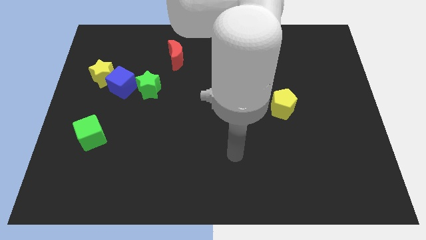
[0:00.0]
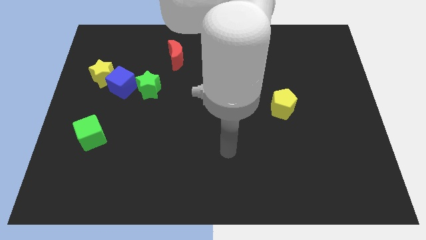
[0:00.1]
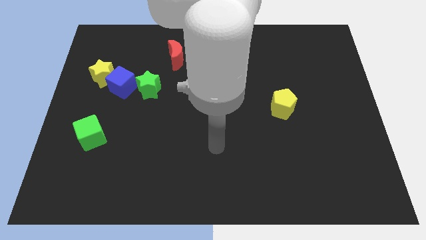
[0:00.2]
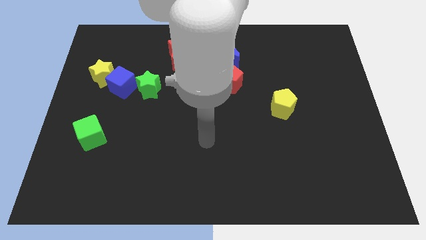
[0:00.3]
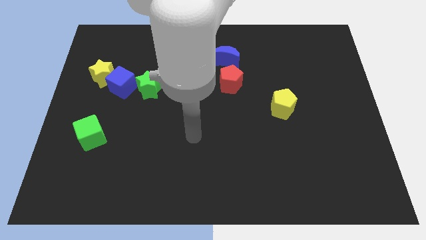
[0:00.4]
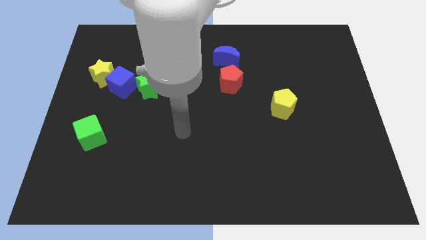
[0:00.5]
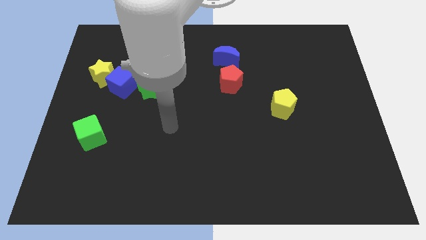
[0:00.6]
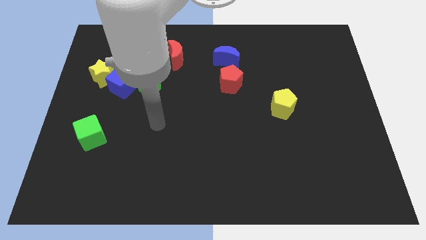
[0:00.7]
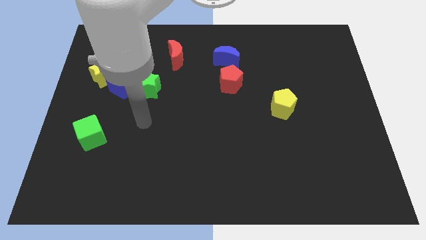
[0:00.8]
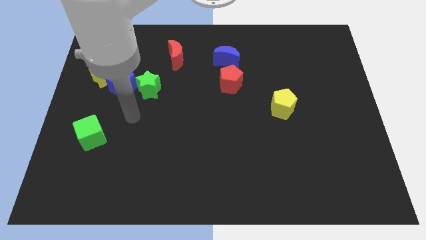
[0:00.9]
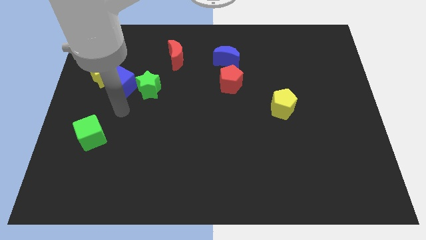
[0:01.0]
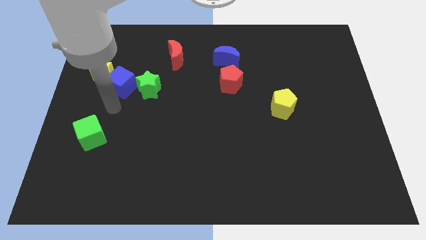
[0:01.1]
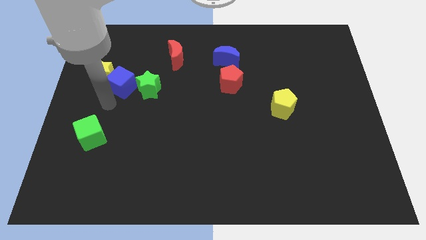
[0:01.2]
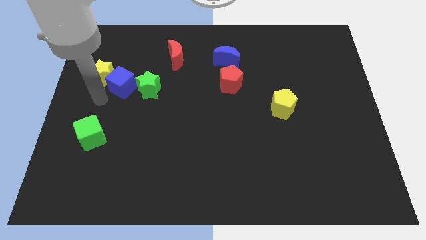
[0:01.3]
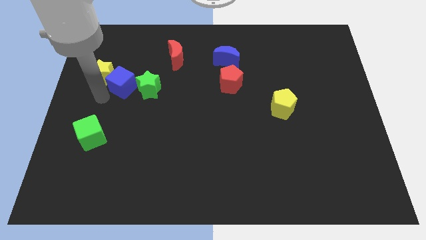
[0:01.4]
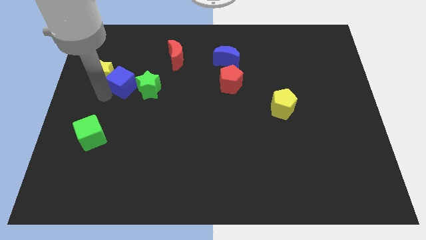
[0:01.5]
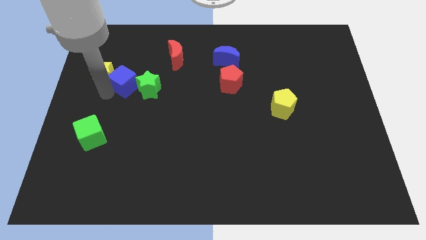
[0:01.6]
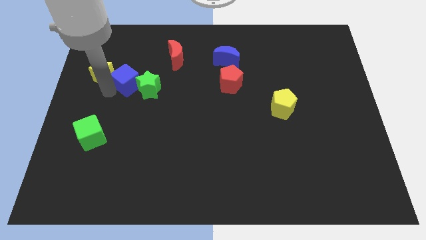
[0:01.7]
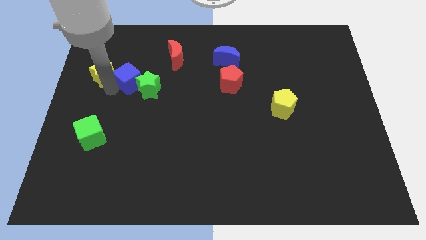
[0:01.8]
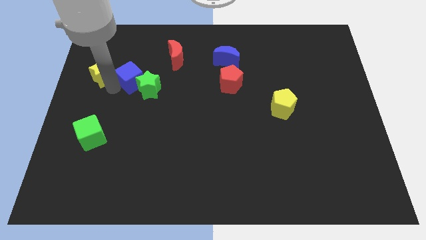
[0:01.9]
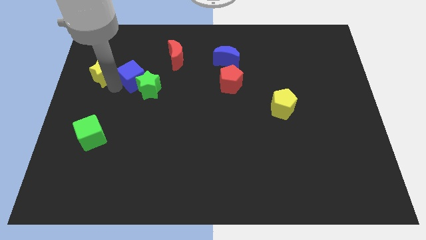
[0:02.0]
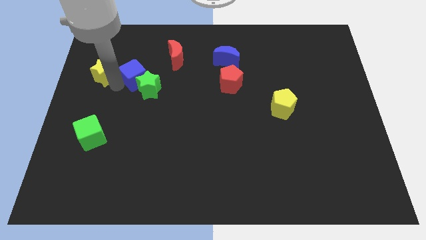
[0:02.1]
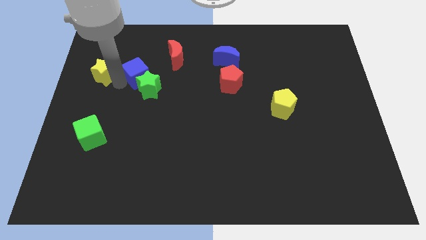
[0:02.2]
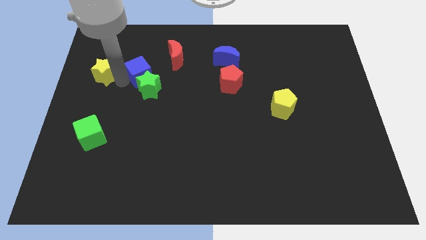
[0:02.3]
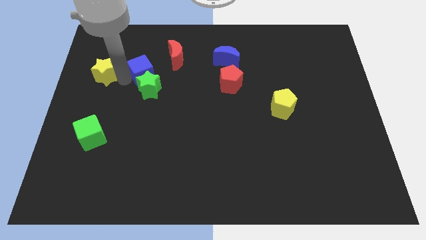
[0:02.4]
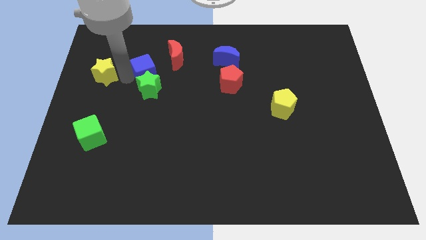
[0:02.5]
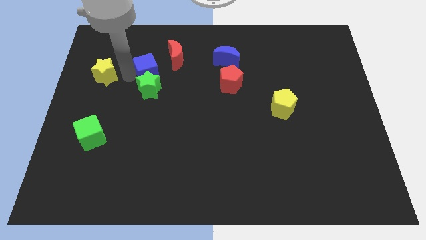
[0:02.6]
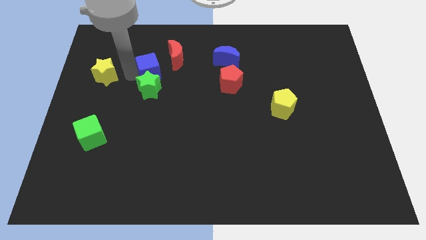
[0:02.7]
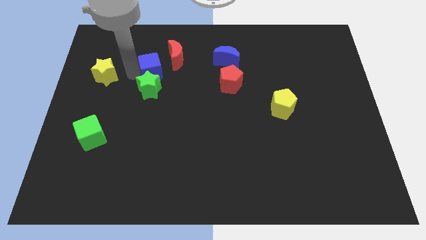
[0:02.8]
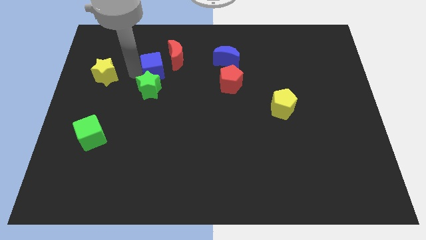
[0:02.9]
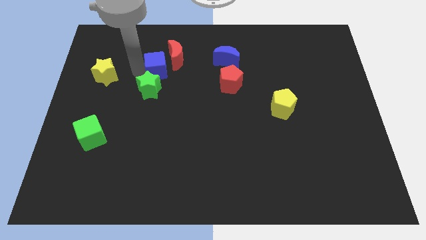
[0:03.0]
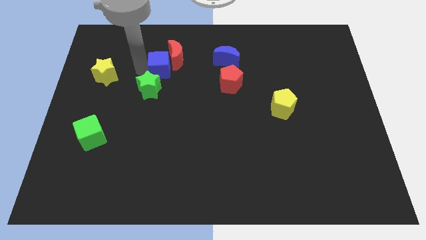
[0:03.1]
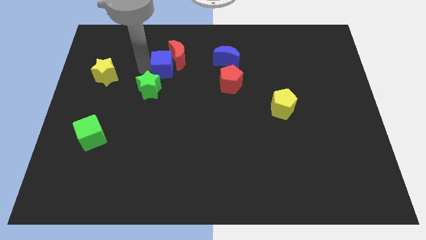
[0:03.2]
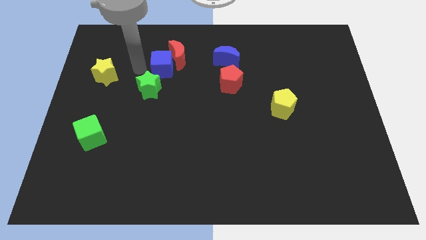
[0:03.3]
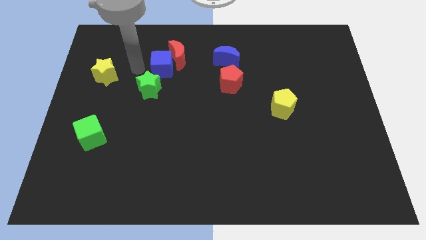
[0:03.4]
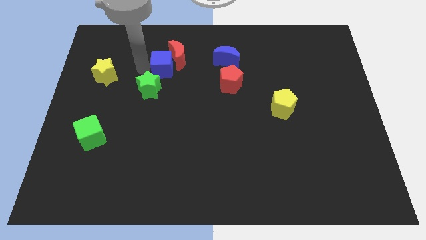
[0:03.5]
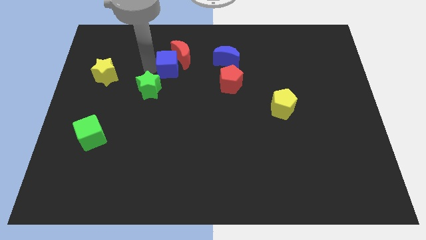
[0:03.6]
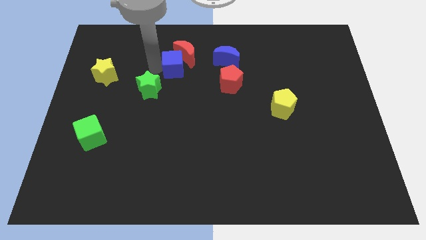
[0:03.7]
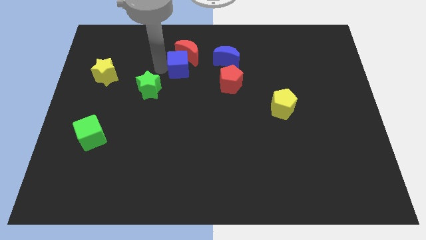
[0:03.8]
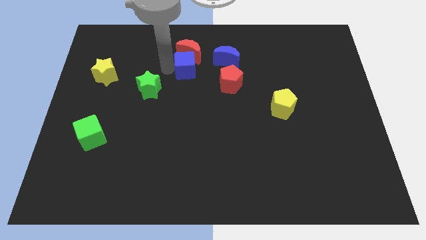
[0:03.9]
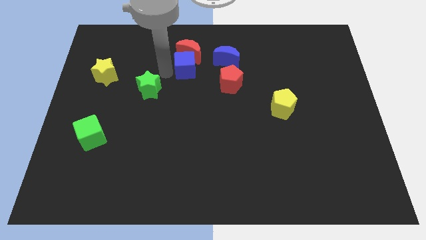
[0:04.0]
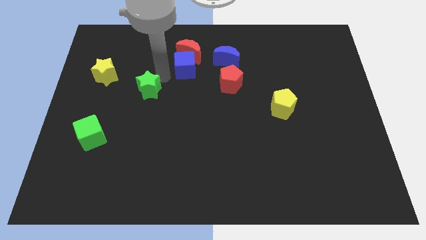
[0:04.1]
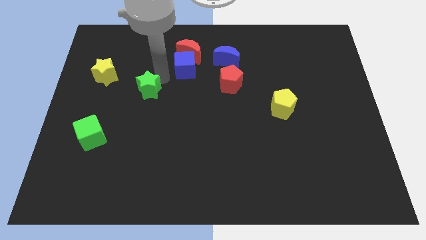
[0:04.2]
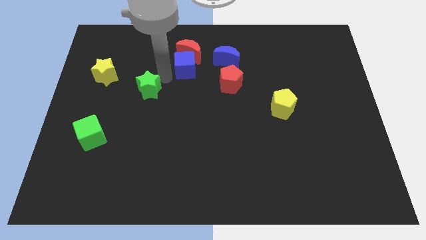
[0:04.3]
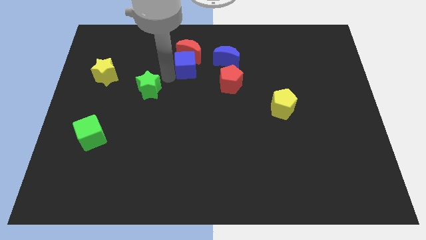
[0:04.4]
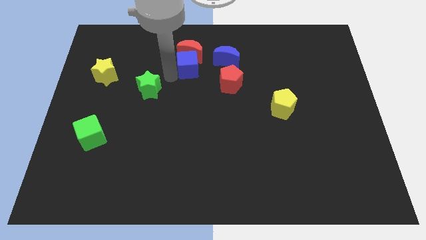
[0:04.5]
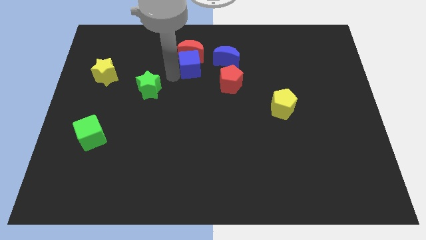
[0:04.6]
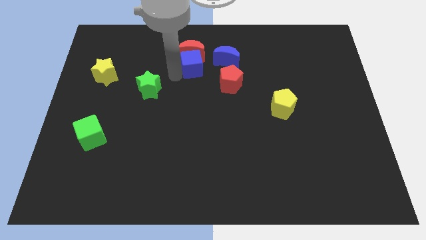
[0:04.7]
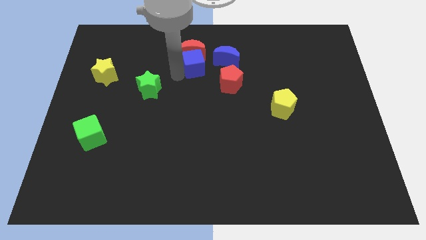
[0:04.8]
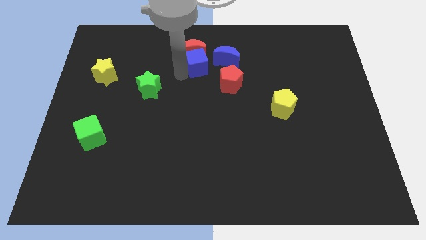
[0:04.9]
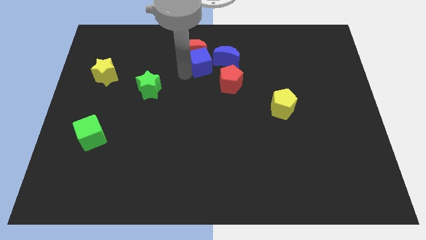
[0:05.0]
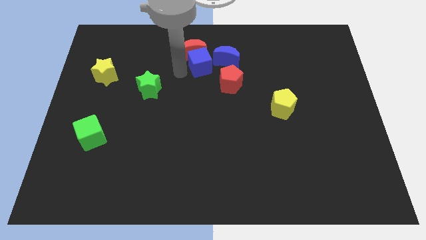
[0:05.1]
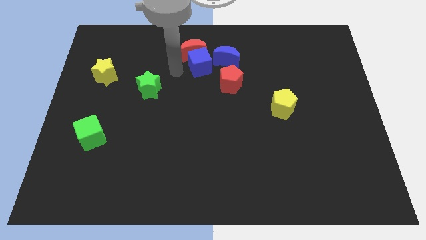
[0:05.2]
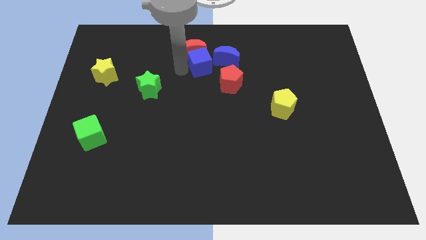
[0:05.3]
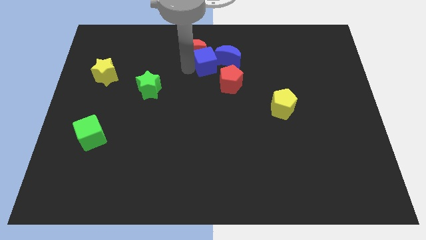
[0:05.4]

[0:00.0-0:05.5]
move the blue cube to the blue moon

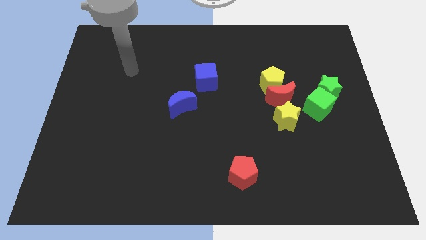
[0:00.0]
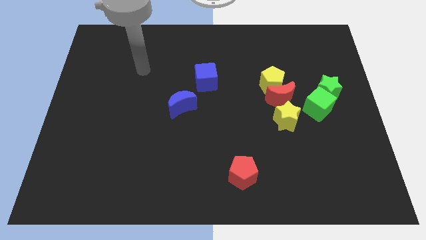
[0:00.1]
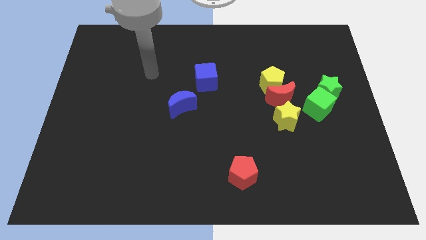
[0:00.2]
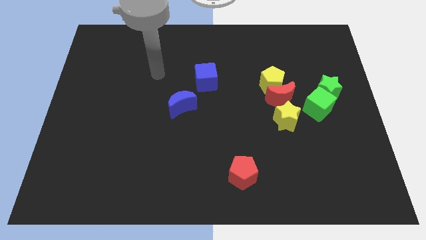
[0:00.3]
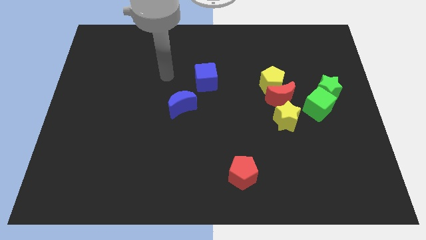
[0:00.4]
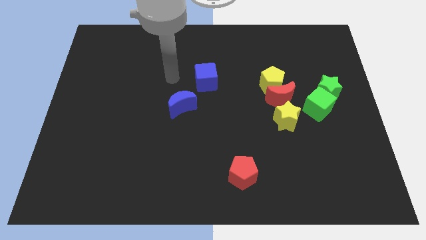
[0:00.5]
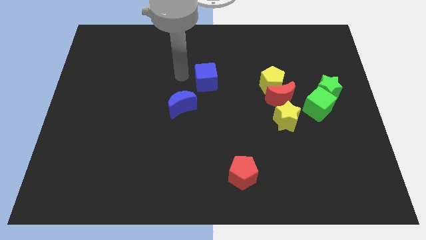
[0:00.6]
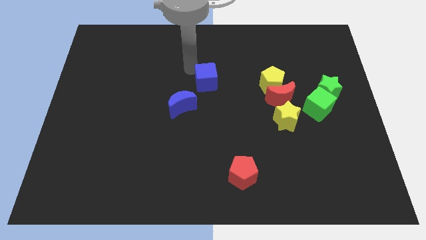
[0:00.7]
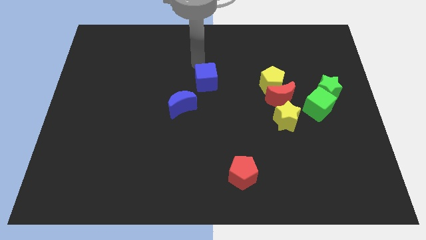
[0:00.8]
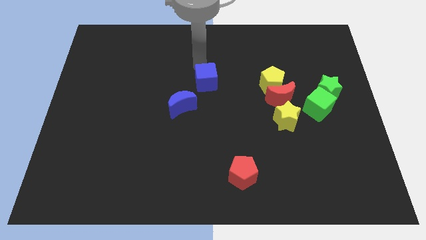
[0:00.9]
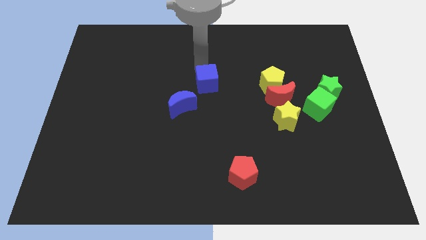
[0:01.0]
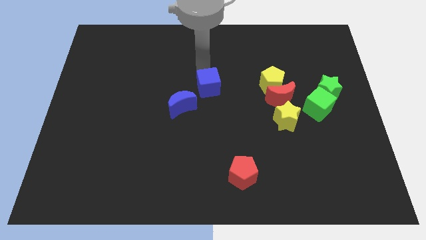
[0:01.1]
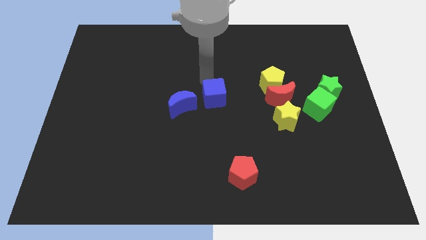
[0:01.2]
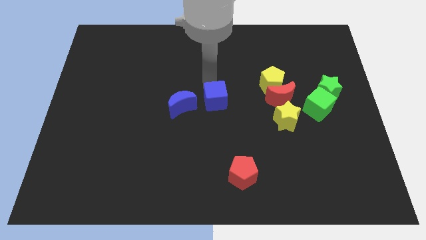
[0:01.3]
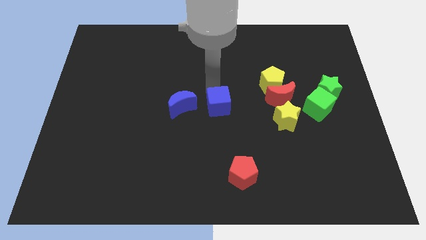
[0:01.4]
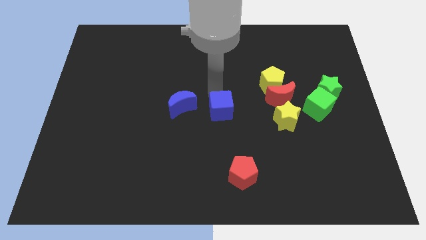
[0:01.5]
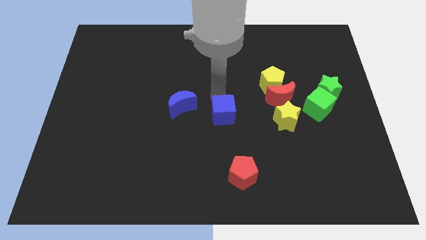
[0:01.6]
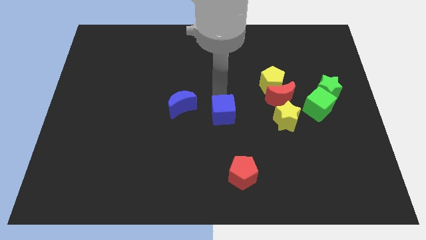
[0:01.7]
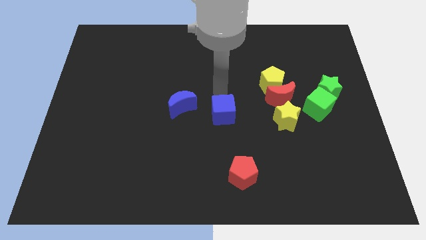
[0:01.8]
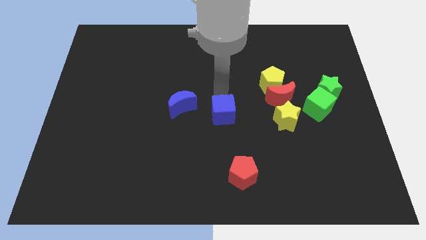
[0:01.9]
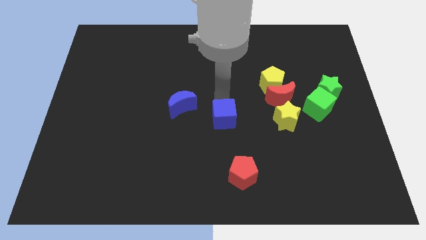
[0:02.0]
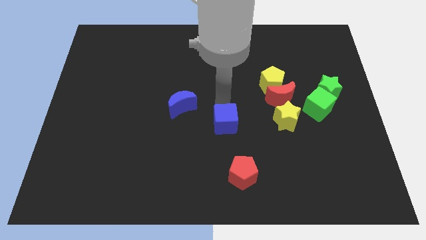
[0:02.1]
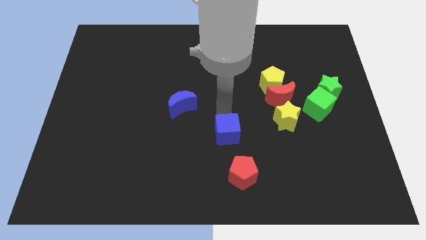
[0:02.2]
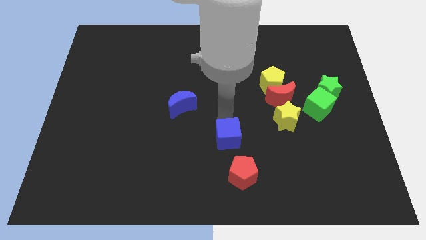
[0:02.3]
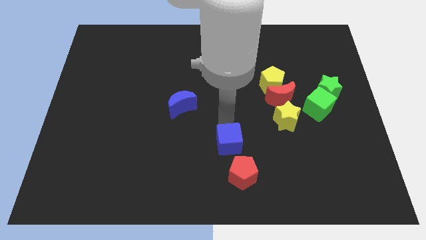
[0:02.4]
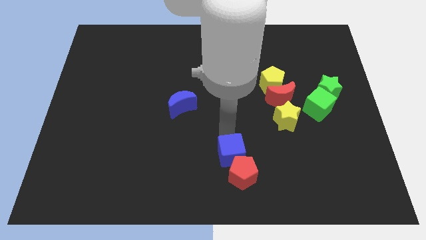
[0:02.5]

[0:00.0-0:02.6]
move the blue cube to the red pentagon

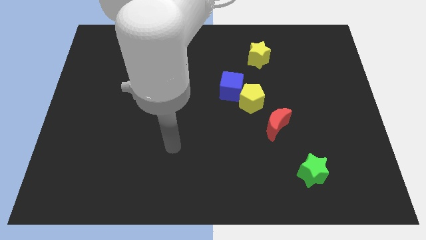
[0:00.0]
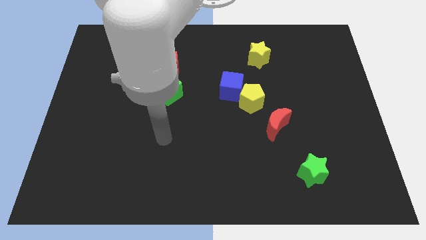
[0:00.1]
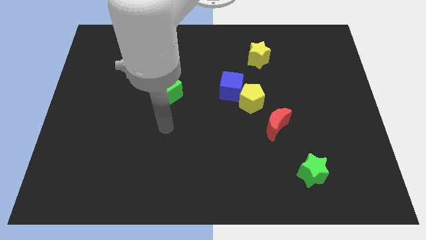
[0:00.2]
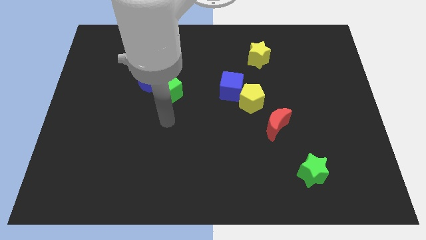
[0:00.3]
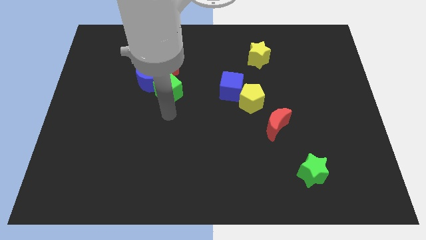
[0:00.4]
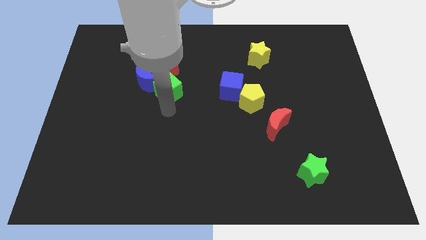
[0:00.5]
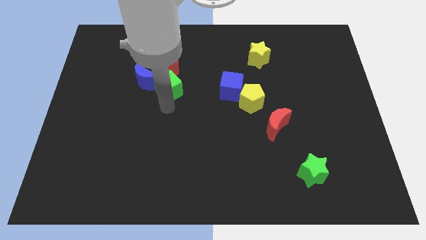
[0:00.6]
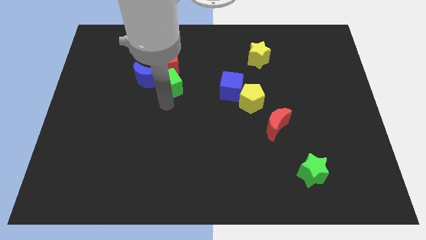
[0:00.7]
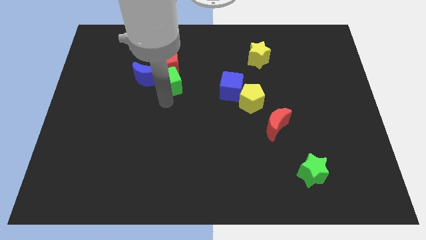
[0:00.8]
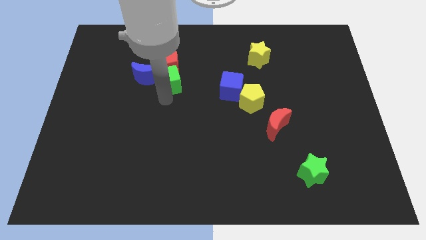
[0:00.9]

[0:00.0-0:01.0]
slide the green cube to the red pentagon
